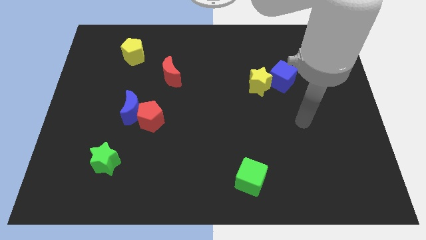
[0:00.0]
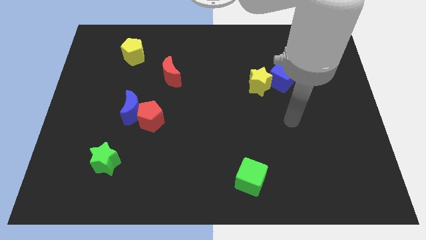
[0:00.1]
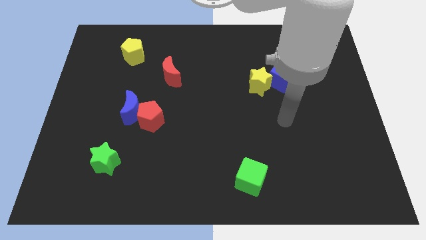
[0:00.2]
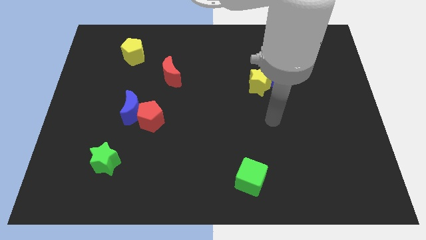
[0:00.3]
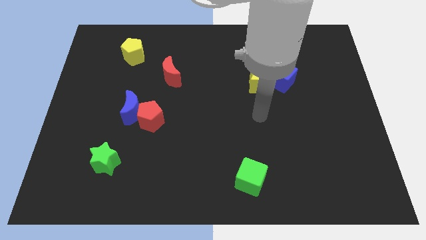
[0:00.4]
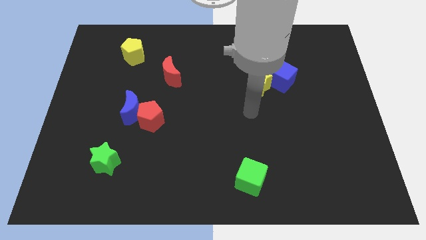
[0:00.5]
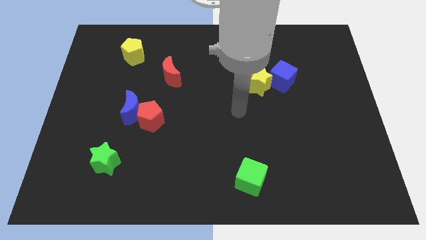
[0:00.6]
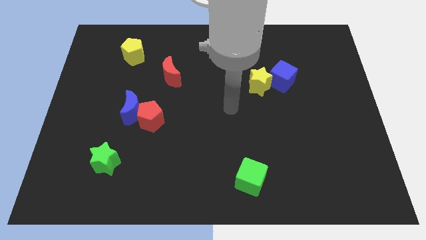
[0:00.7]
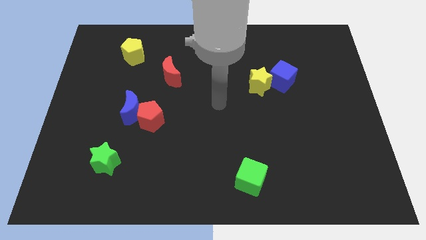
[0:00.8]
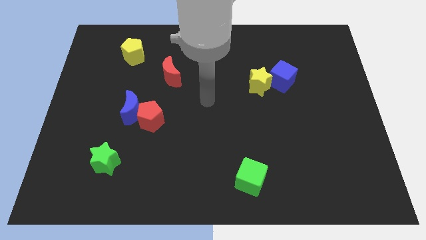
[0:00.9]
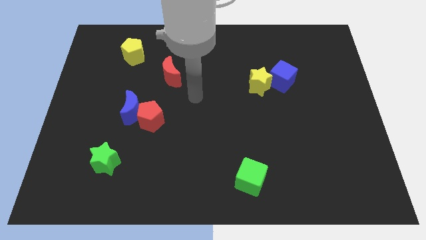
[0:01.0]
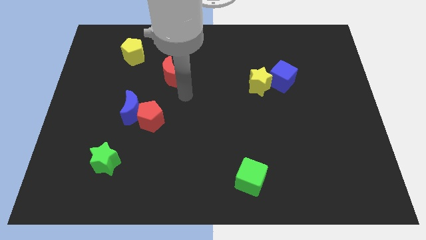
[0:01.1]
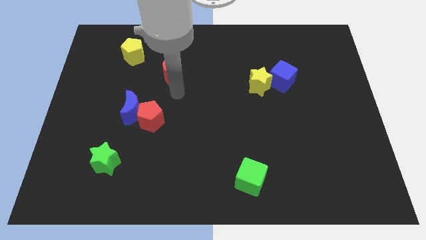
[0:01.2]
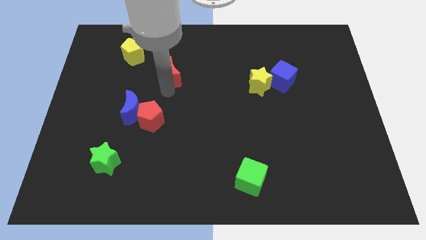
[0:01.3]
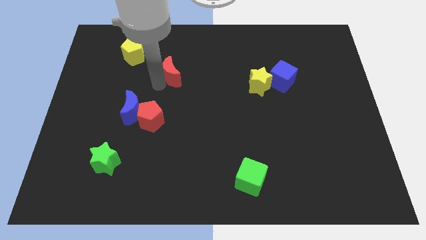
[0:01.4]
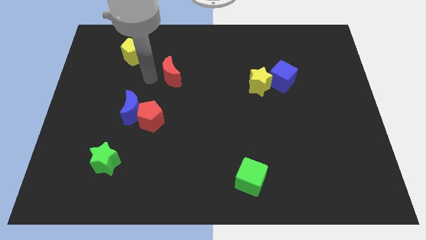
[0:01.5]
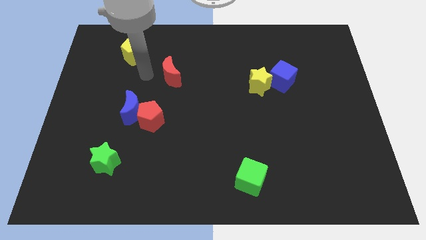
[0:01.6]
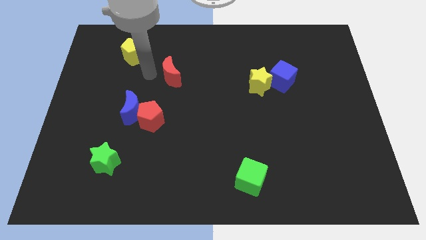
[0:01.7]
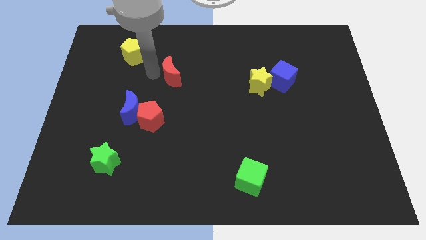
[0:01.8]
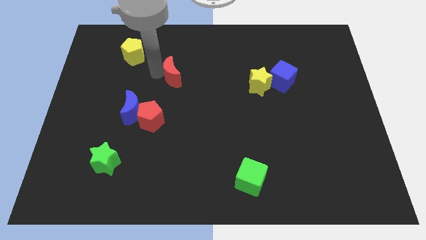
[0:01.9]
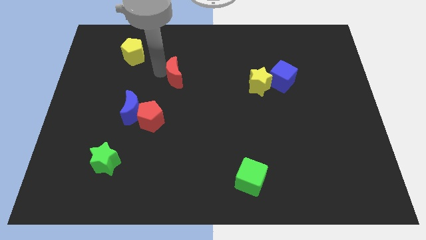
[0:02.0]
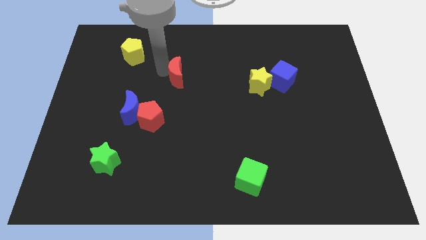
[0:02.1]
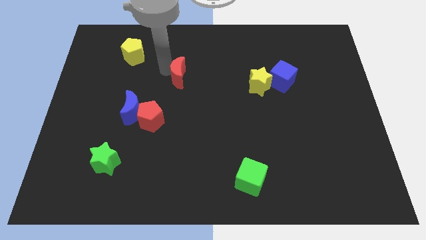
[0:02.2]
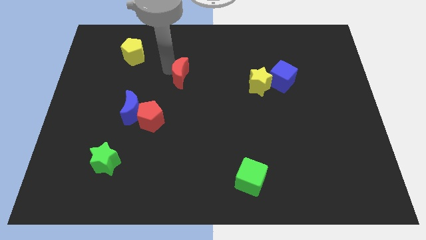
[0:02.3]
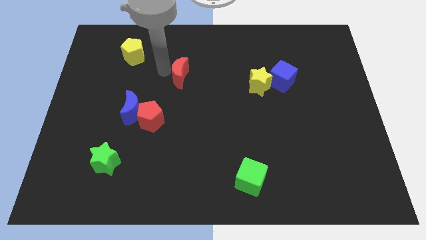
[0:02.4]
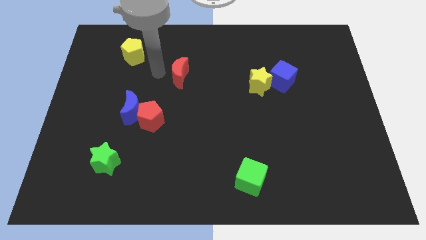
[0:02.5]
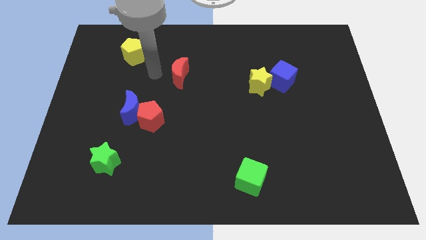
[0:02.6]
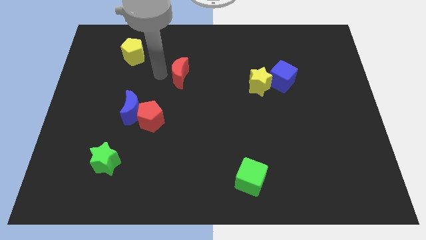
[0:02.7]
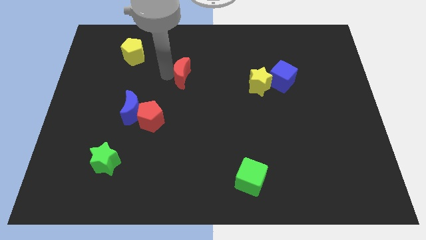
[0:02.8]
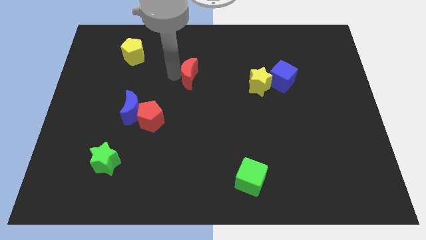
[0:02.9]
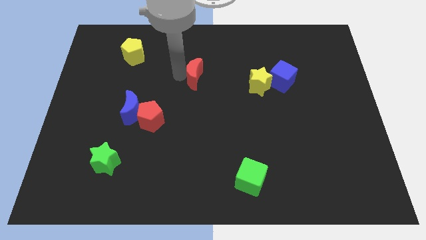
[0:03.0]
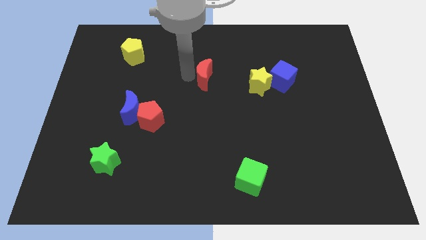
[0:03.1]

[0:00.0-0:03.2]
move the red moon right a little bit

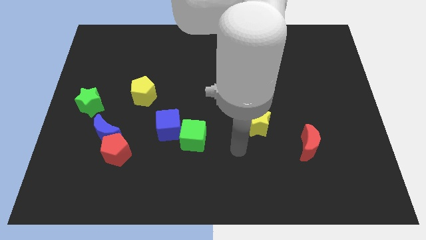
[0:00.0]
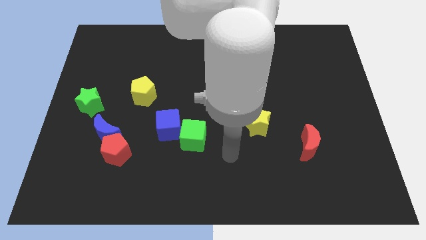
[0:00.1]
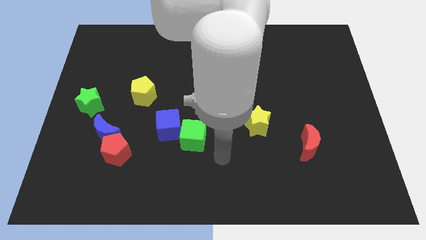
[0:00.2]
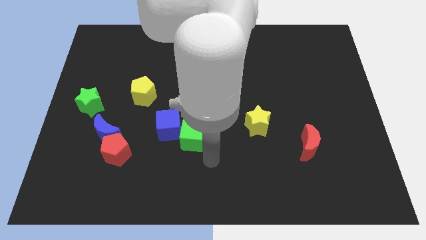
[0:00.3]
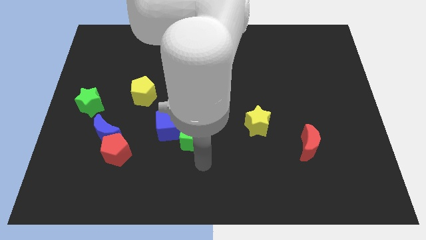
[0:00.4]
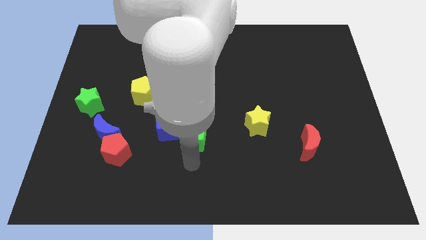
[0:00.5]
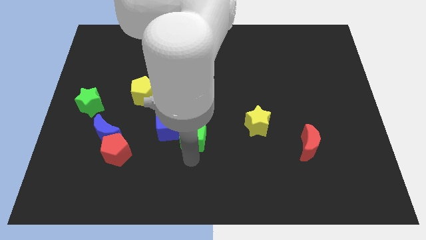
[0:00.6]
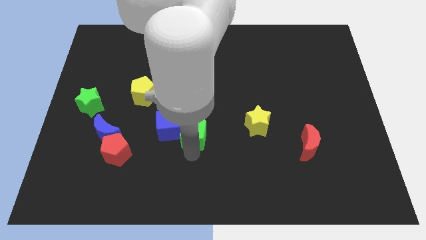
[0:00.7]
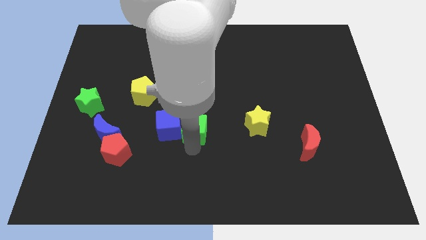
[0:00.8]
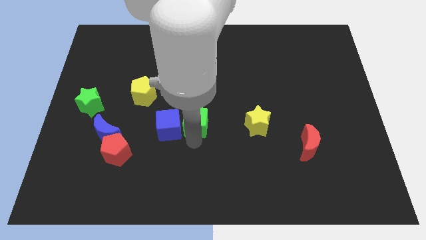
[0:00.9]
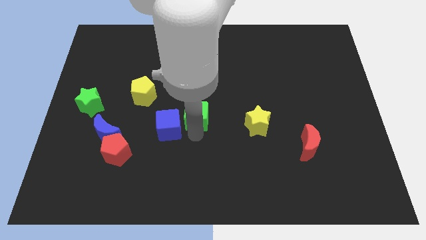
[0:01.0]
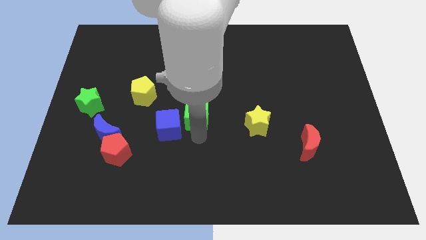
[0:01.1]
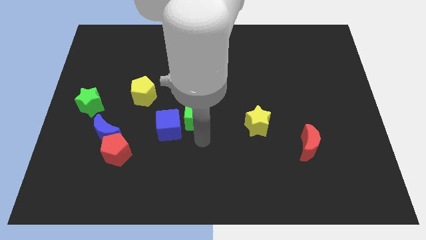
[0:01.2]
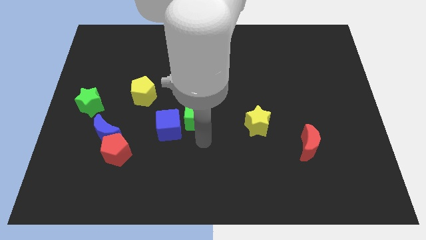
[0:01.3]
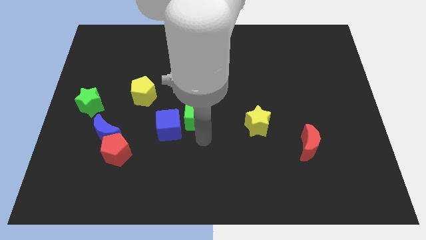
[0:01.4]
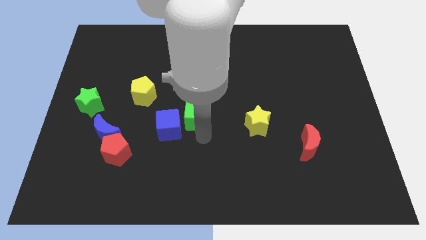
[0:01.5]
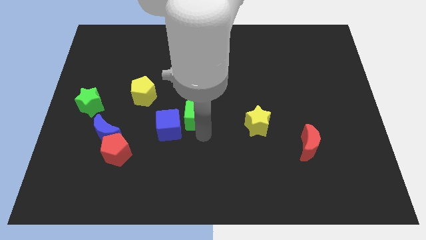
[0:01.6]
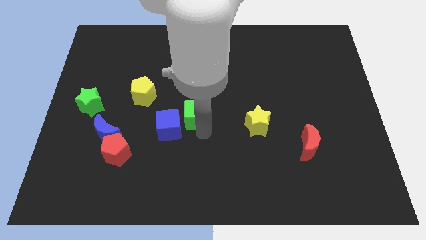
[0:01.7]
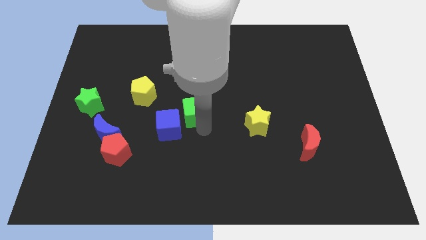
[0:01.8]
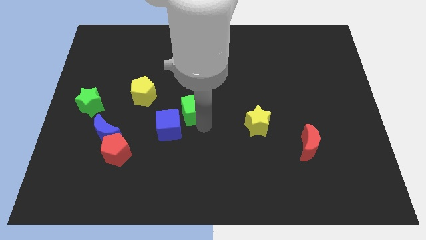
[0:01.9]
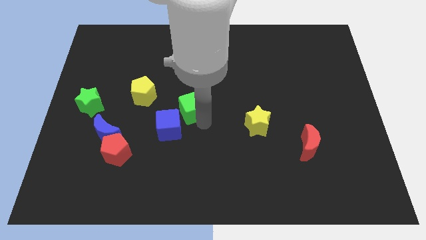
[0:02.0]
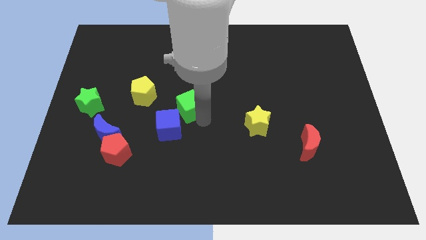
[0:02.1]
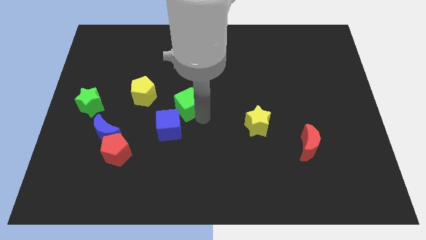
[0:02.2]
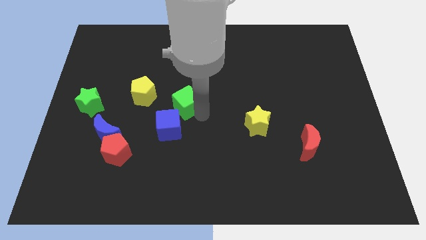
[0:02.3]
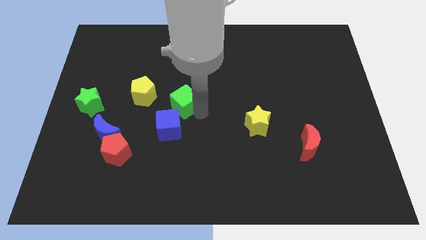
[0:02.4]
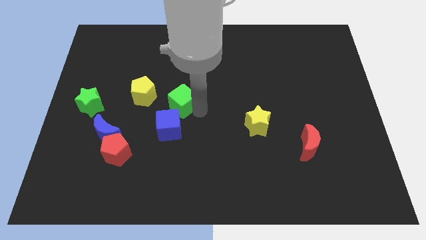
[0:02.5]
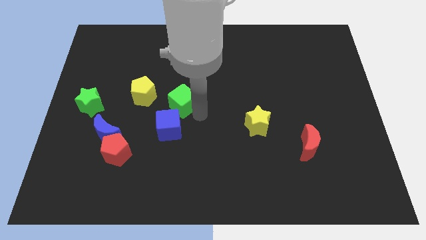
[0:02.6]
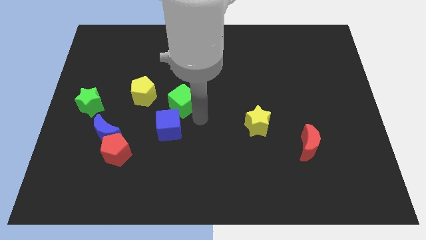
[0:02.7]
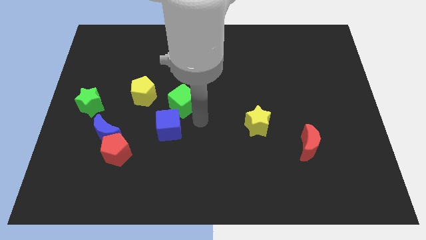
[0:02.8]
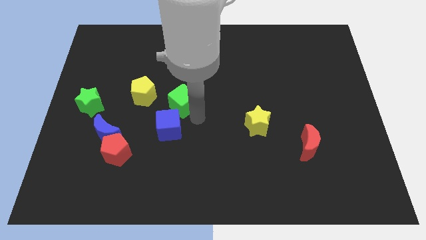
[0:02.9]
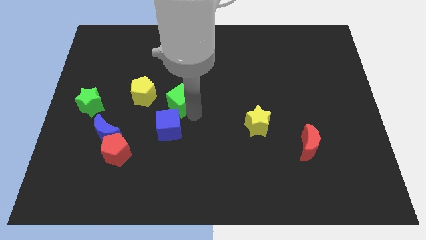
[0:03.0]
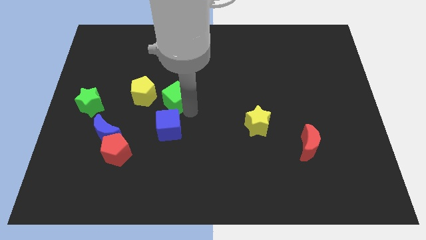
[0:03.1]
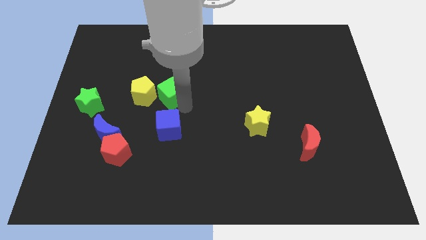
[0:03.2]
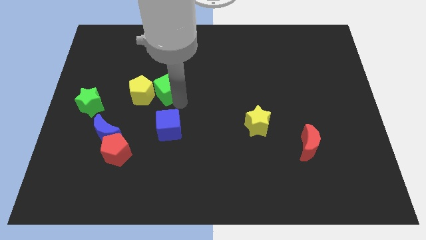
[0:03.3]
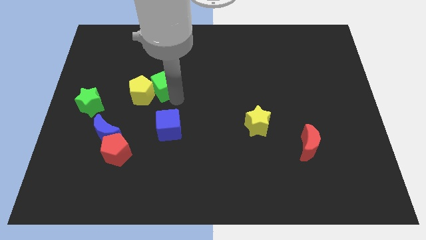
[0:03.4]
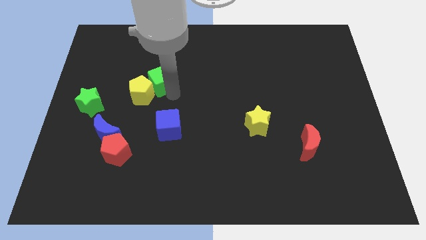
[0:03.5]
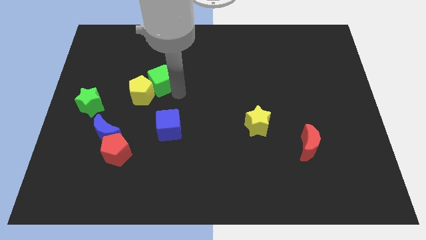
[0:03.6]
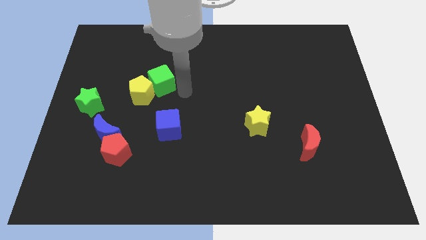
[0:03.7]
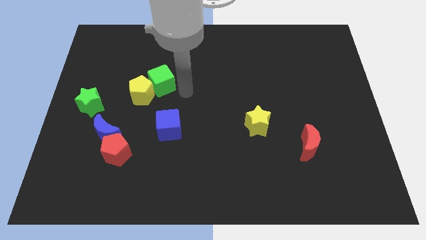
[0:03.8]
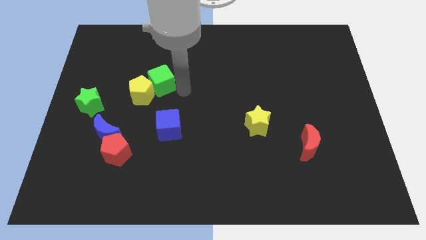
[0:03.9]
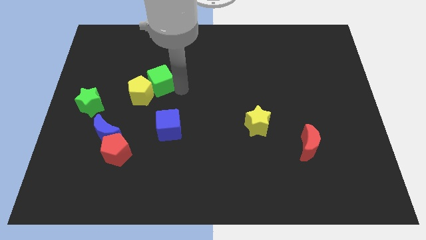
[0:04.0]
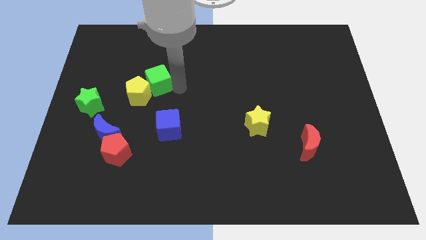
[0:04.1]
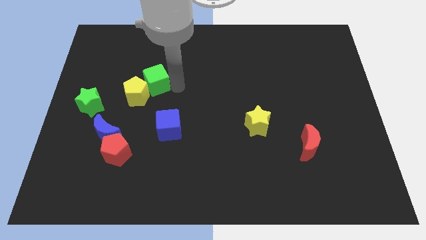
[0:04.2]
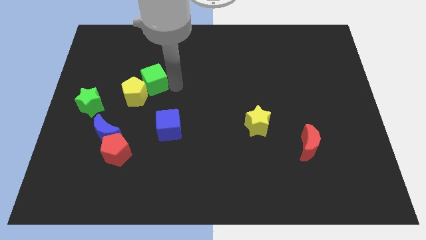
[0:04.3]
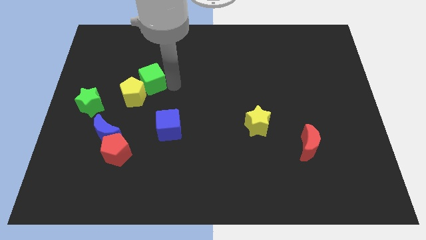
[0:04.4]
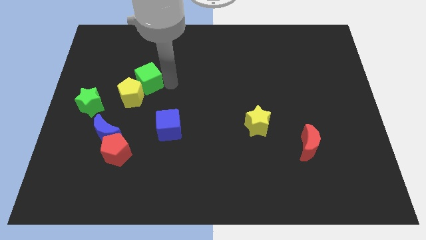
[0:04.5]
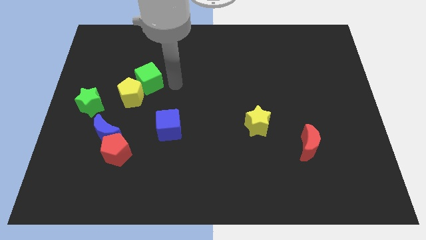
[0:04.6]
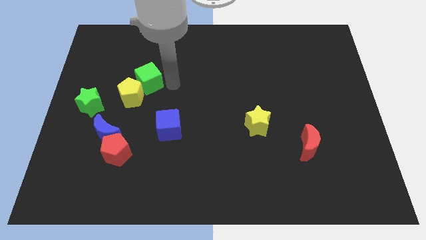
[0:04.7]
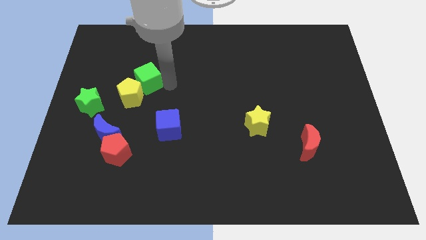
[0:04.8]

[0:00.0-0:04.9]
push the green cube upwards and then to the left
